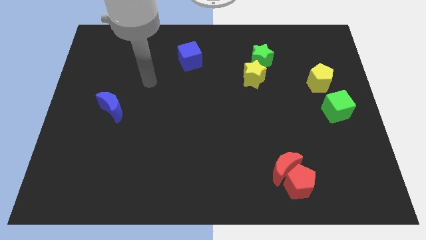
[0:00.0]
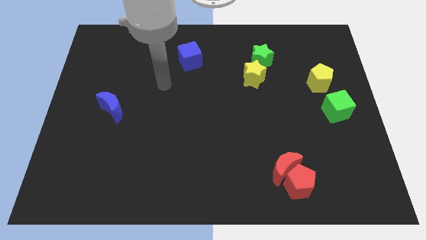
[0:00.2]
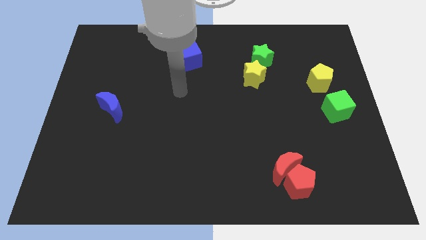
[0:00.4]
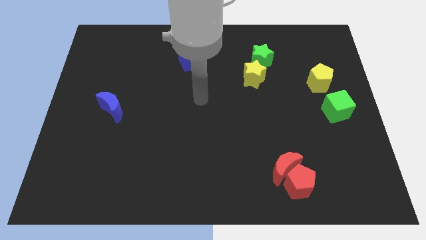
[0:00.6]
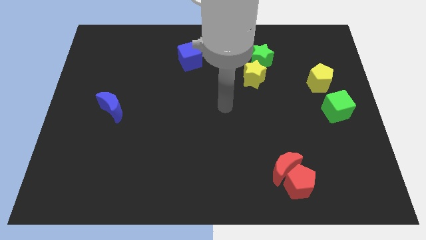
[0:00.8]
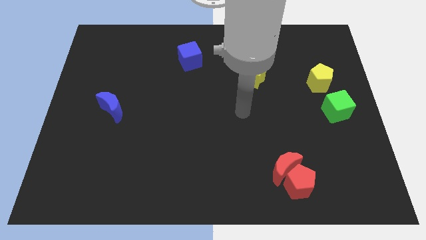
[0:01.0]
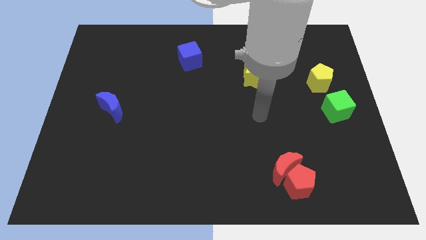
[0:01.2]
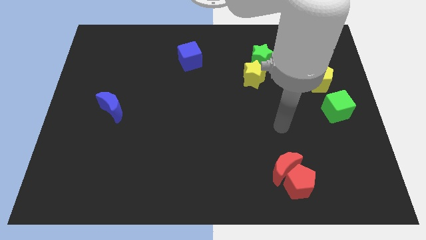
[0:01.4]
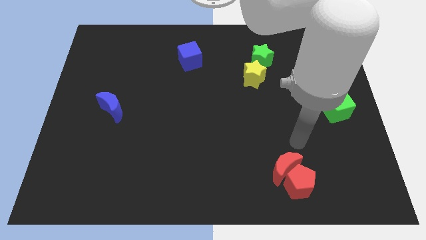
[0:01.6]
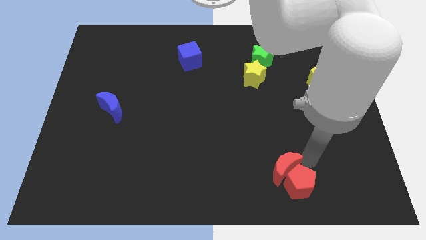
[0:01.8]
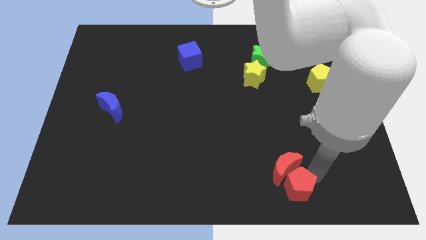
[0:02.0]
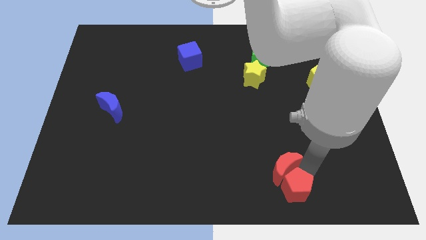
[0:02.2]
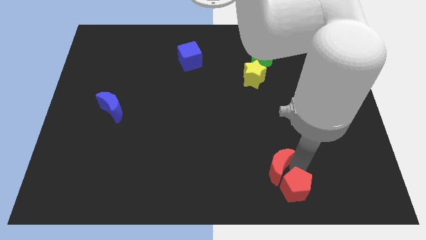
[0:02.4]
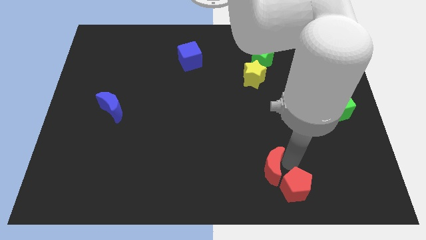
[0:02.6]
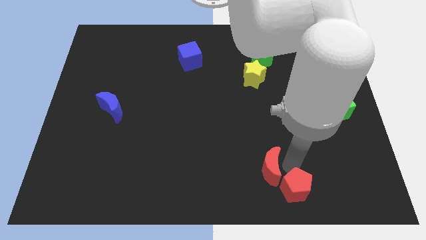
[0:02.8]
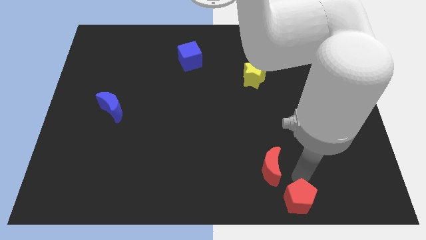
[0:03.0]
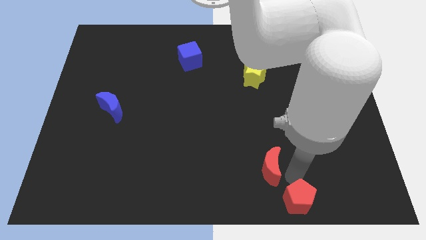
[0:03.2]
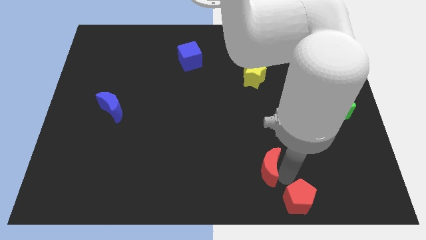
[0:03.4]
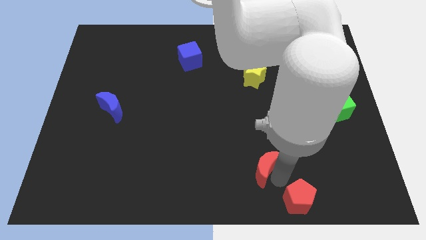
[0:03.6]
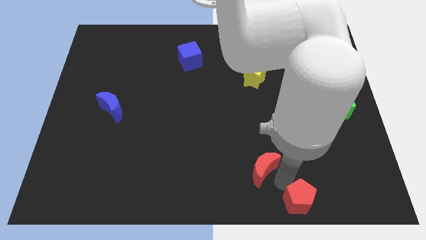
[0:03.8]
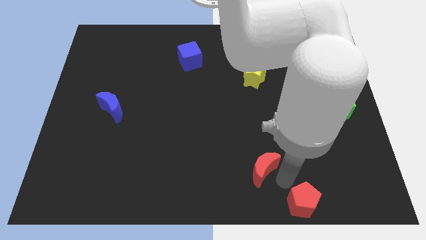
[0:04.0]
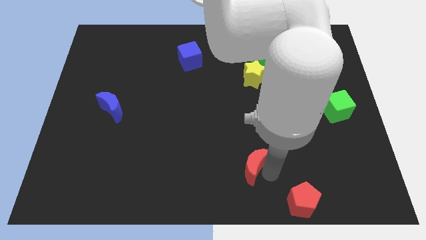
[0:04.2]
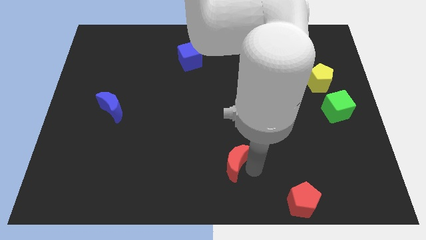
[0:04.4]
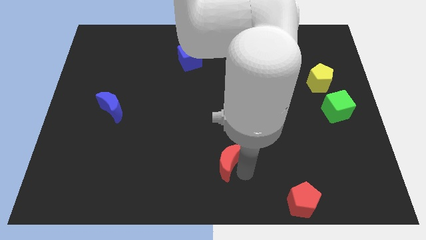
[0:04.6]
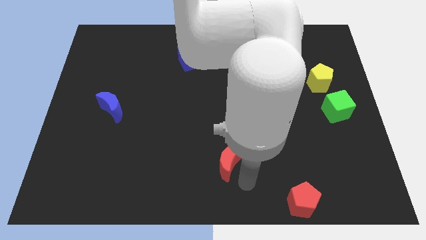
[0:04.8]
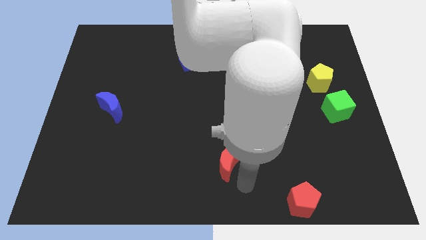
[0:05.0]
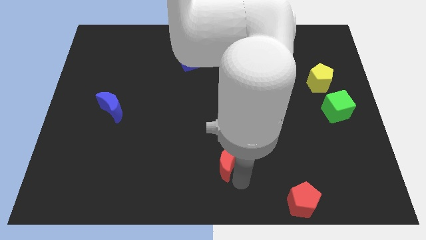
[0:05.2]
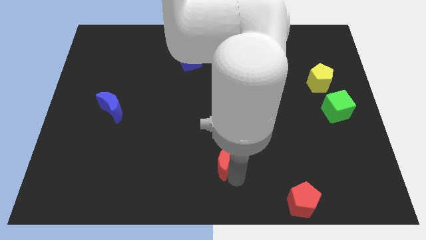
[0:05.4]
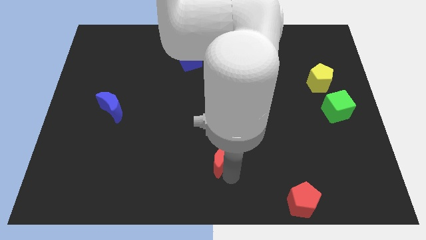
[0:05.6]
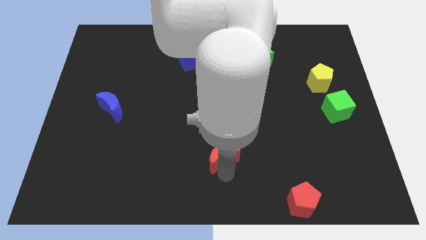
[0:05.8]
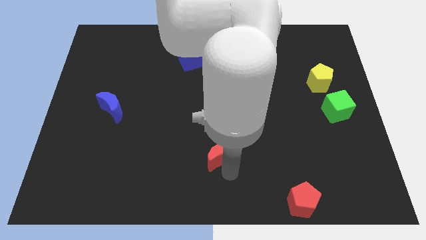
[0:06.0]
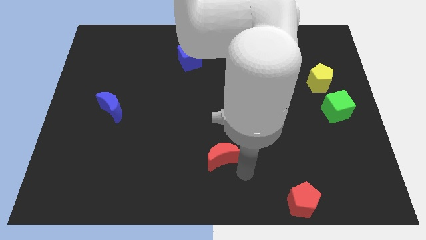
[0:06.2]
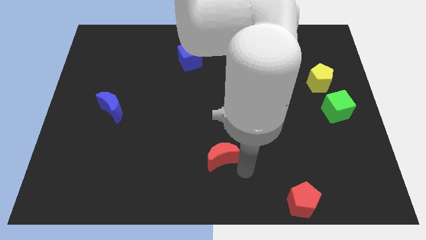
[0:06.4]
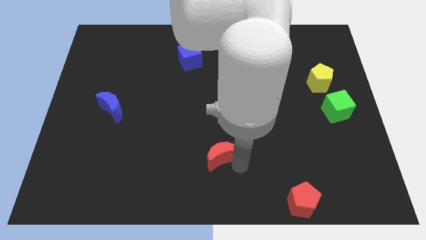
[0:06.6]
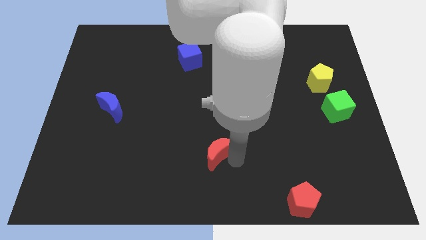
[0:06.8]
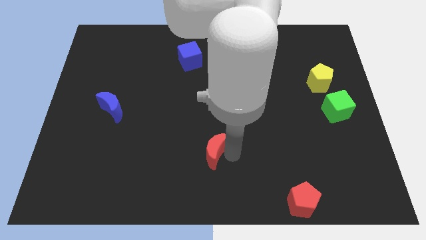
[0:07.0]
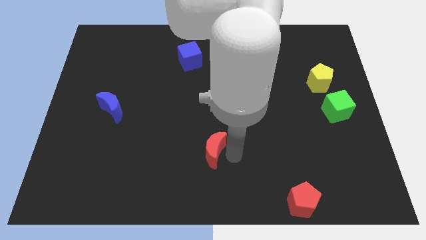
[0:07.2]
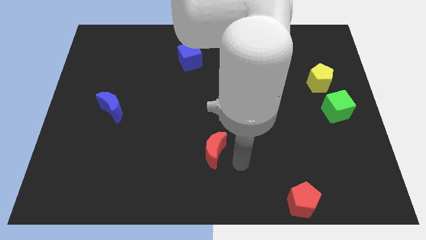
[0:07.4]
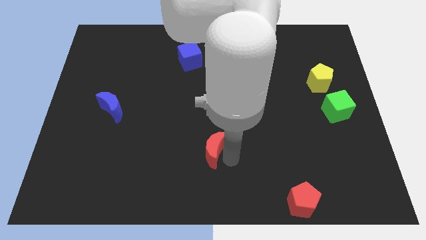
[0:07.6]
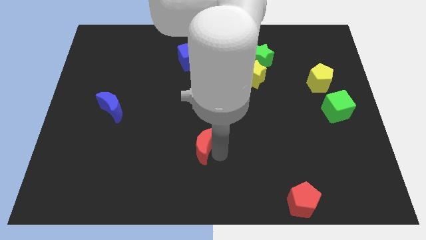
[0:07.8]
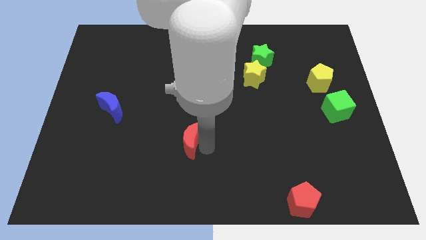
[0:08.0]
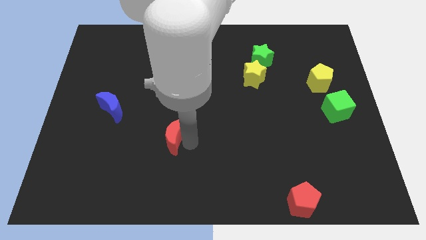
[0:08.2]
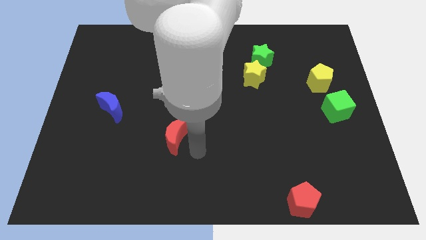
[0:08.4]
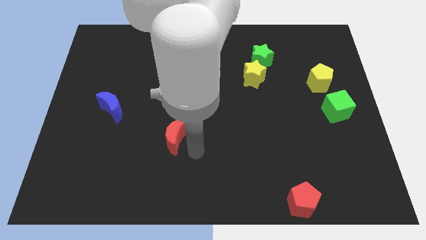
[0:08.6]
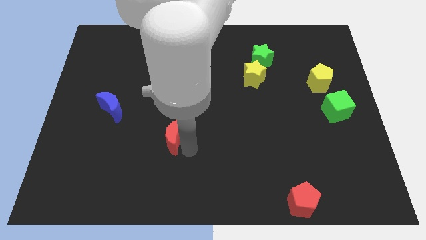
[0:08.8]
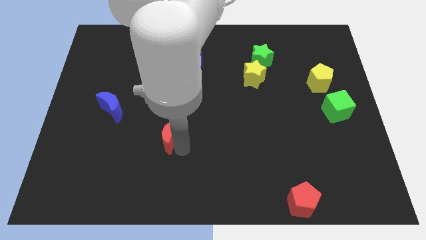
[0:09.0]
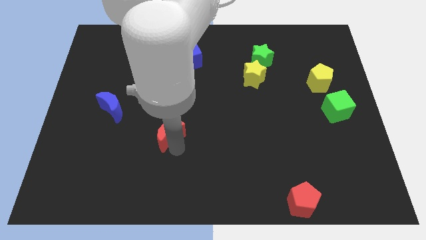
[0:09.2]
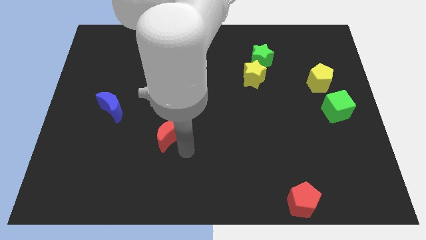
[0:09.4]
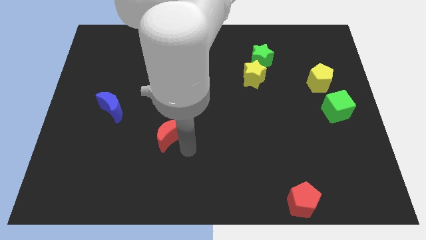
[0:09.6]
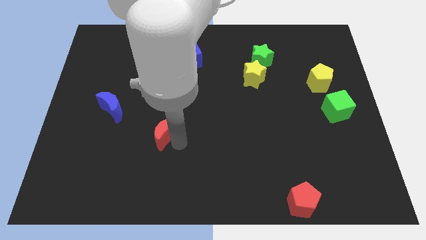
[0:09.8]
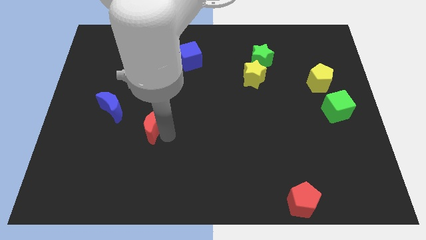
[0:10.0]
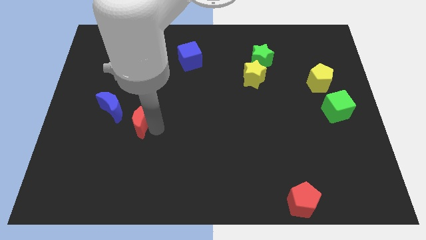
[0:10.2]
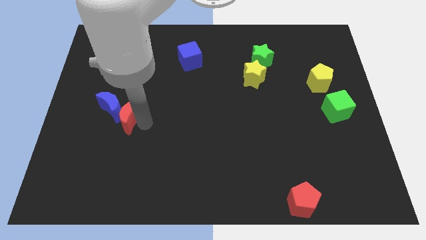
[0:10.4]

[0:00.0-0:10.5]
move the red moon towards the blue moon

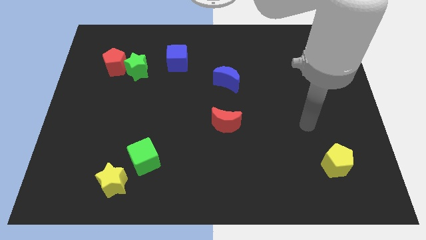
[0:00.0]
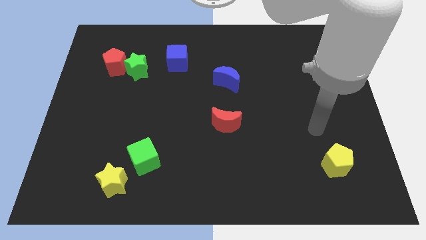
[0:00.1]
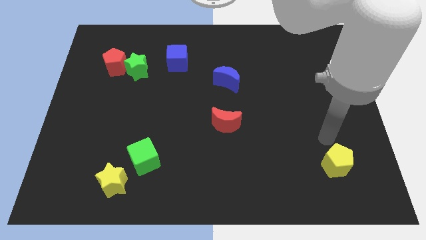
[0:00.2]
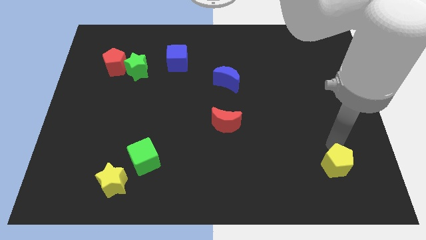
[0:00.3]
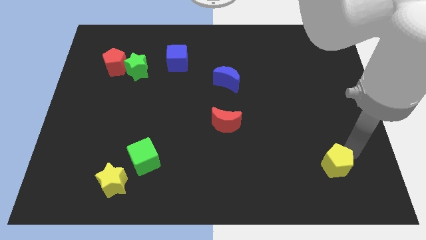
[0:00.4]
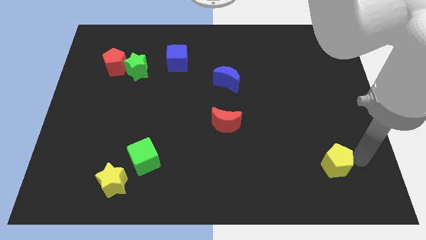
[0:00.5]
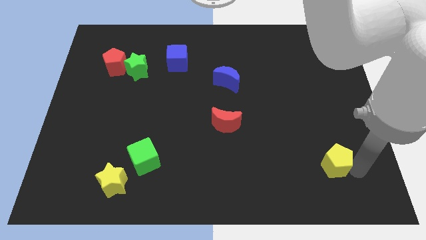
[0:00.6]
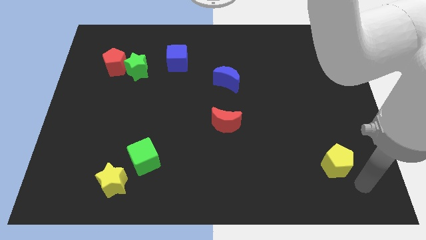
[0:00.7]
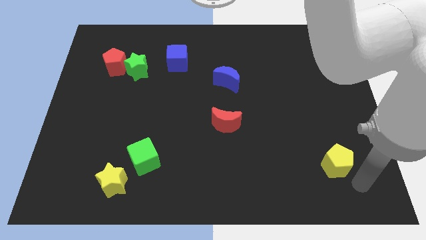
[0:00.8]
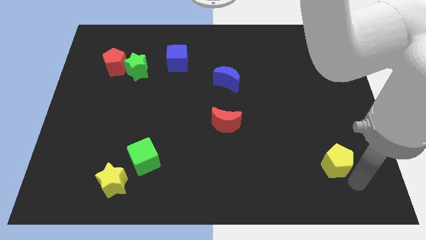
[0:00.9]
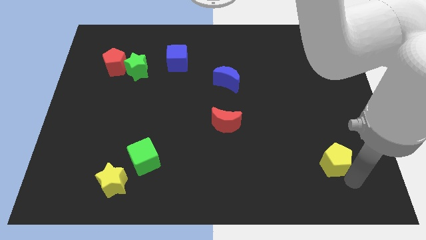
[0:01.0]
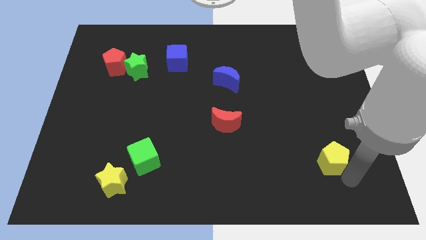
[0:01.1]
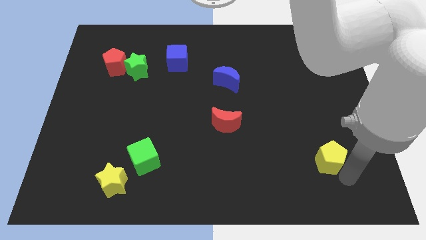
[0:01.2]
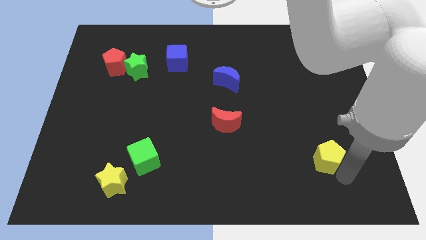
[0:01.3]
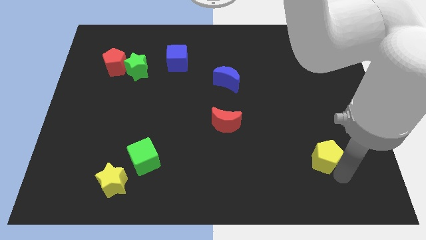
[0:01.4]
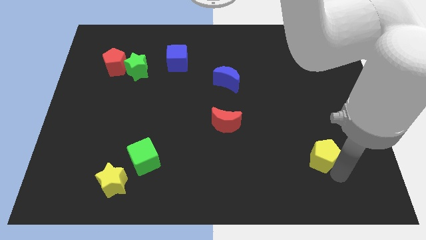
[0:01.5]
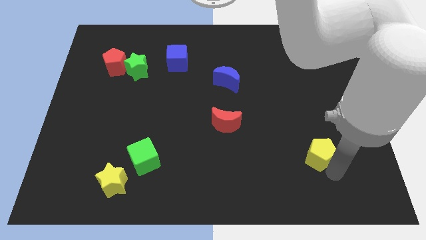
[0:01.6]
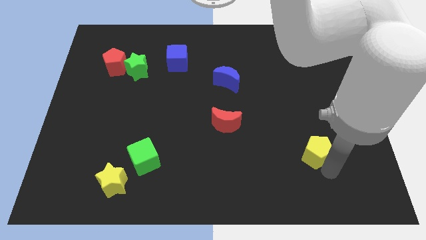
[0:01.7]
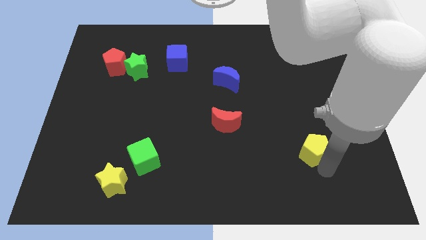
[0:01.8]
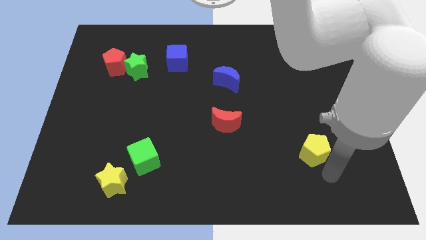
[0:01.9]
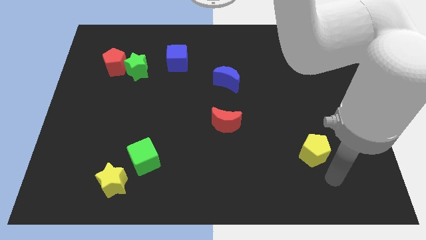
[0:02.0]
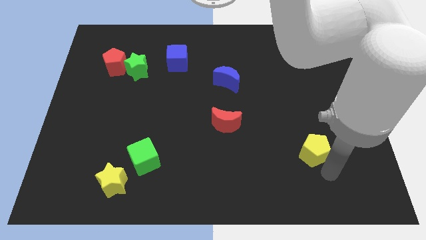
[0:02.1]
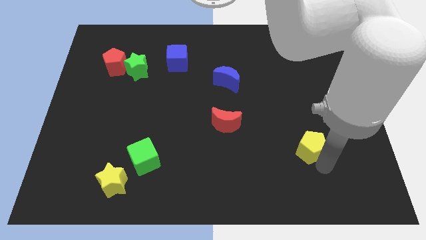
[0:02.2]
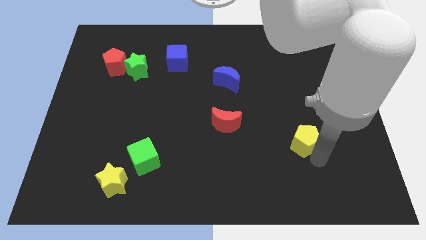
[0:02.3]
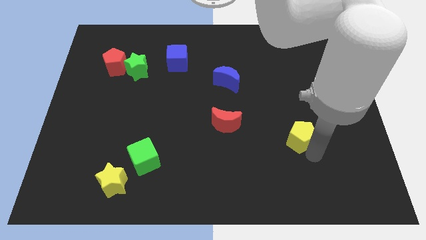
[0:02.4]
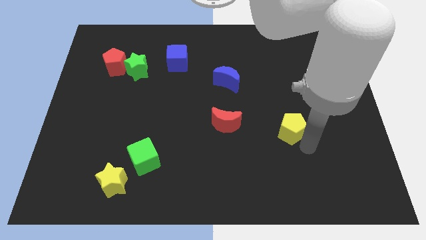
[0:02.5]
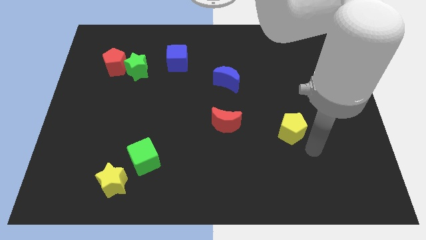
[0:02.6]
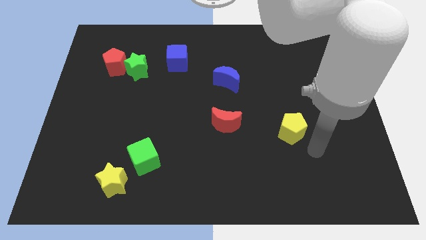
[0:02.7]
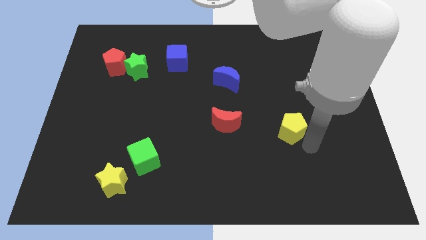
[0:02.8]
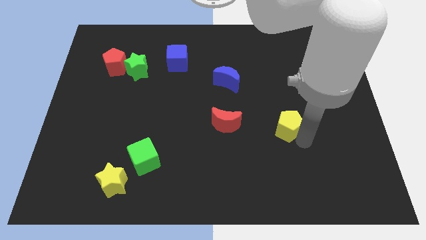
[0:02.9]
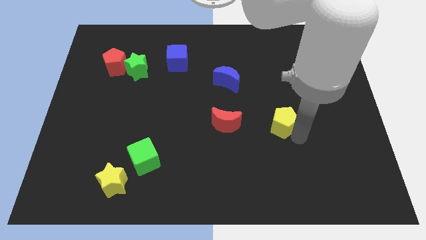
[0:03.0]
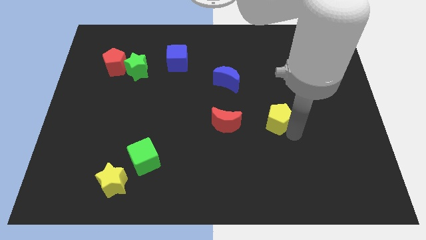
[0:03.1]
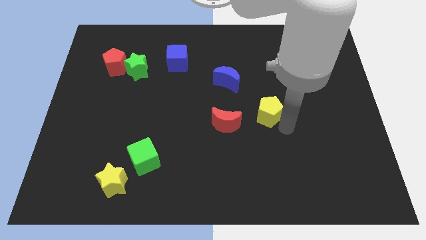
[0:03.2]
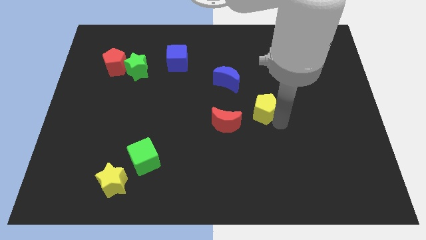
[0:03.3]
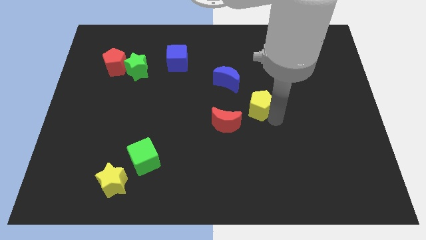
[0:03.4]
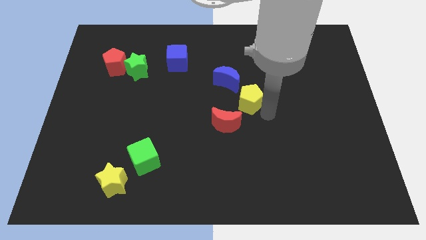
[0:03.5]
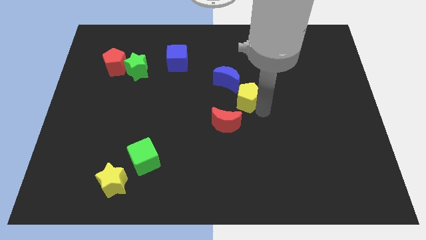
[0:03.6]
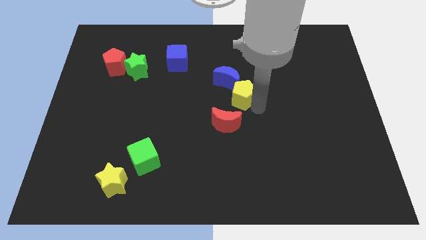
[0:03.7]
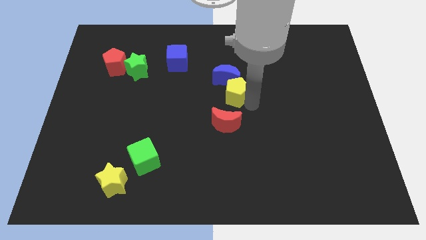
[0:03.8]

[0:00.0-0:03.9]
move the yellow pentagon next to the blue moon
